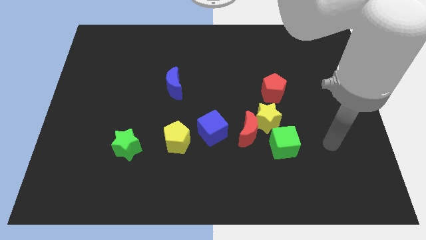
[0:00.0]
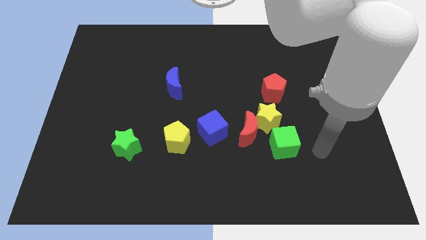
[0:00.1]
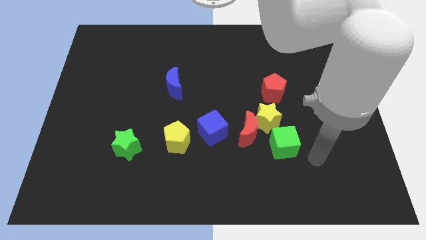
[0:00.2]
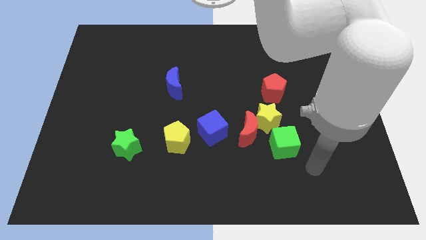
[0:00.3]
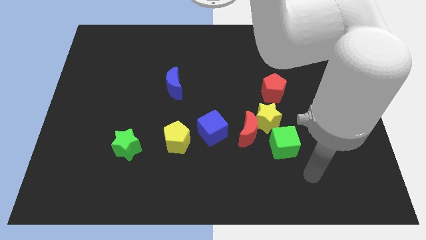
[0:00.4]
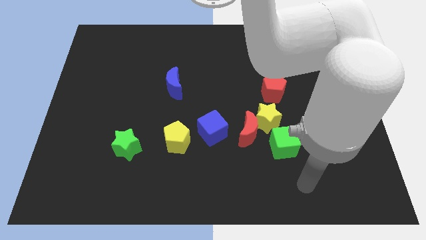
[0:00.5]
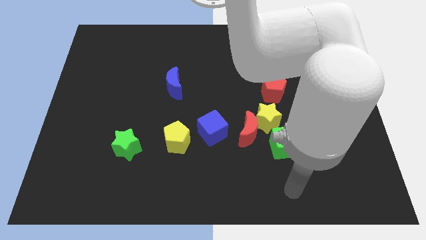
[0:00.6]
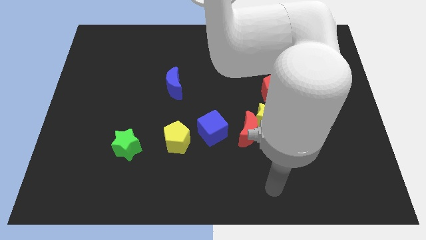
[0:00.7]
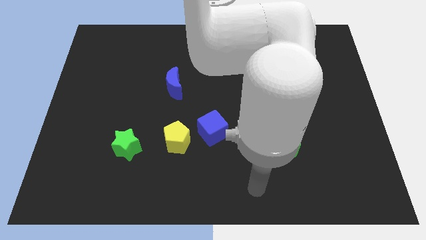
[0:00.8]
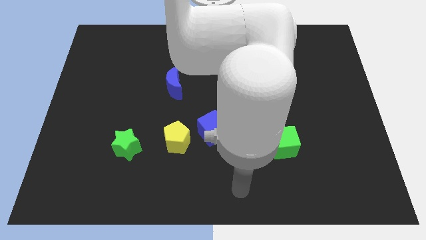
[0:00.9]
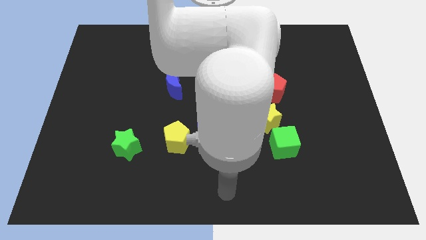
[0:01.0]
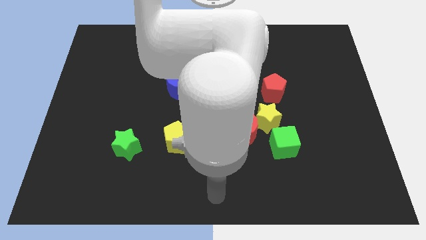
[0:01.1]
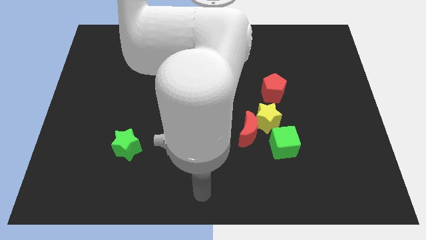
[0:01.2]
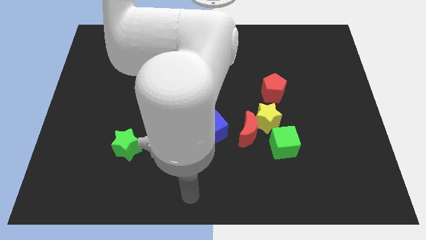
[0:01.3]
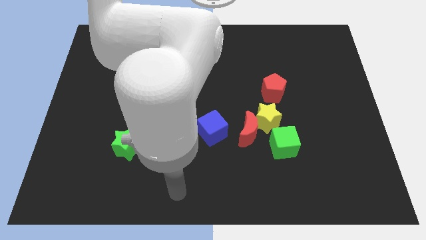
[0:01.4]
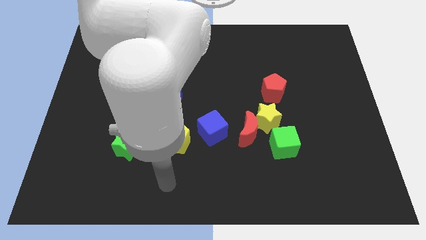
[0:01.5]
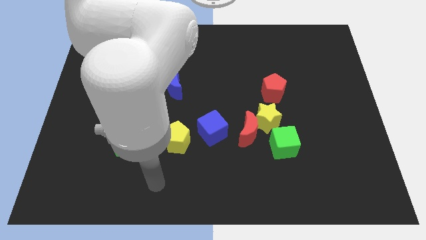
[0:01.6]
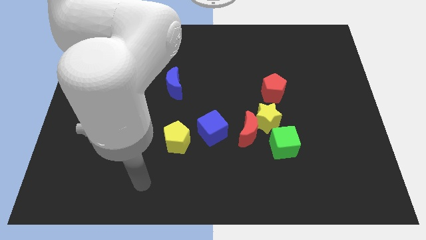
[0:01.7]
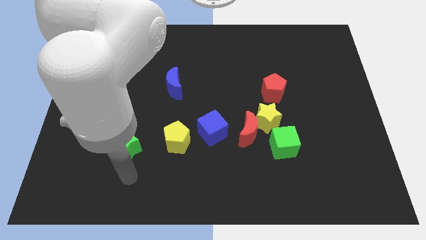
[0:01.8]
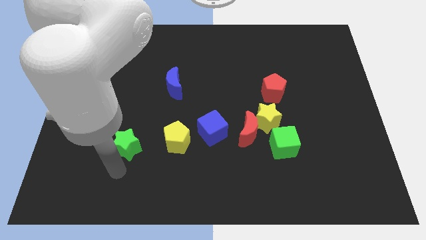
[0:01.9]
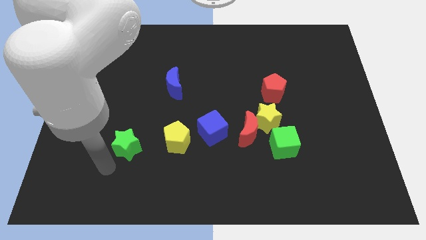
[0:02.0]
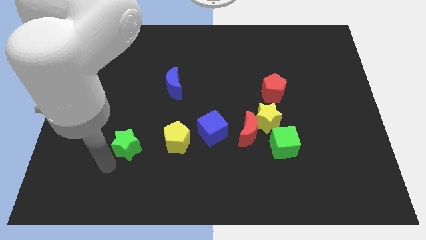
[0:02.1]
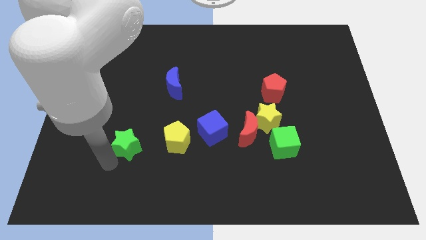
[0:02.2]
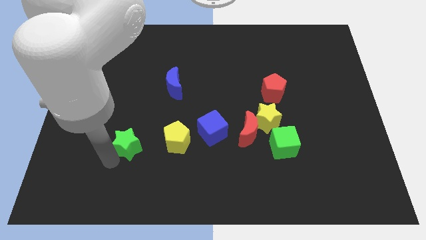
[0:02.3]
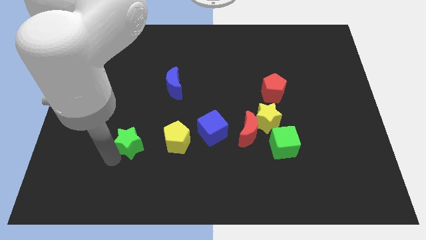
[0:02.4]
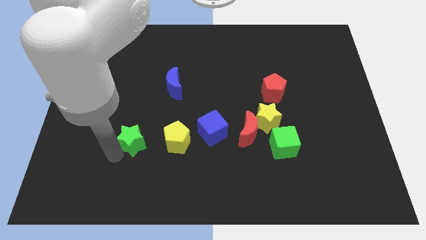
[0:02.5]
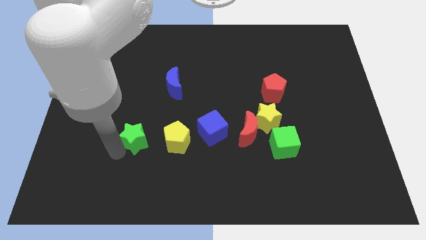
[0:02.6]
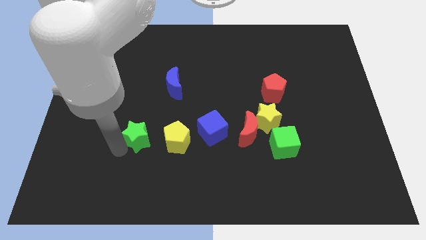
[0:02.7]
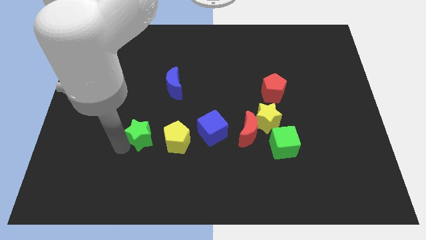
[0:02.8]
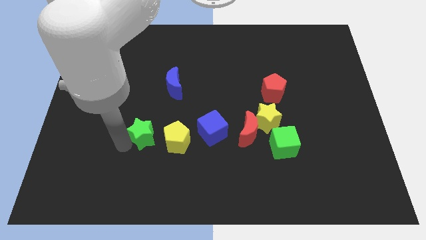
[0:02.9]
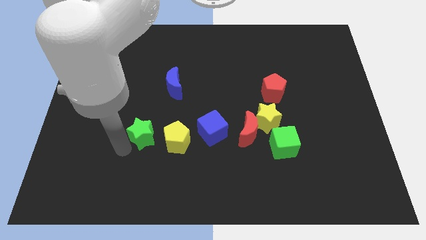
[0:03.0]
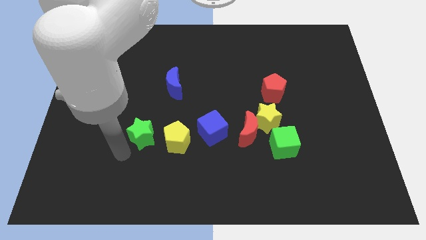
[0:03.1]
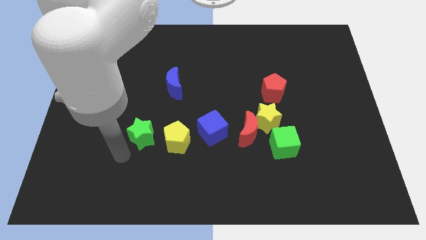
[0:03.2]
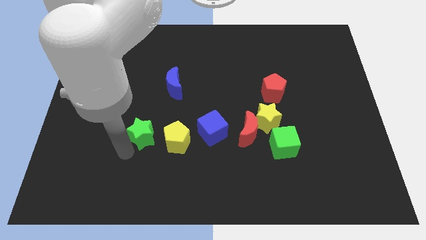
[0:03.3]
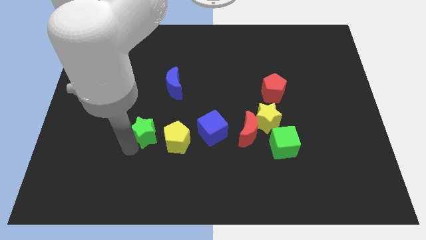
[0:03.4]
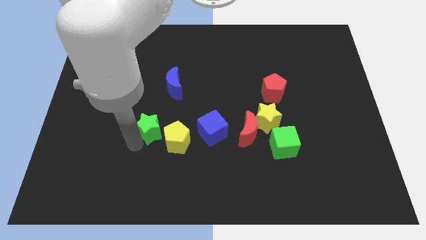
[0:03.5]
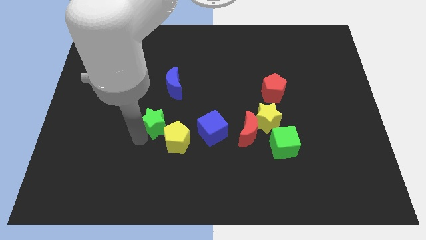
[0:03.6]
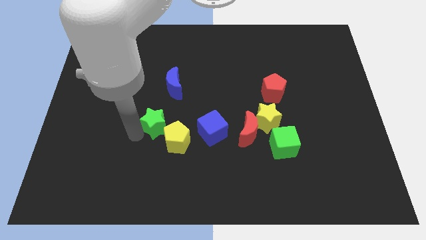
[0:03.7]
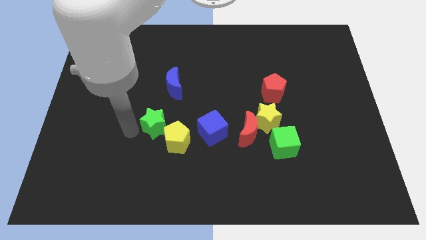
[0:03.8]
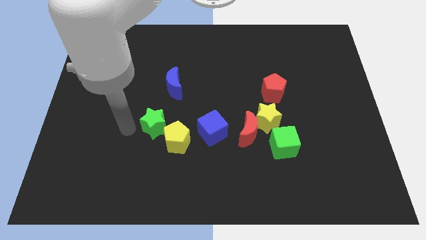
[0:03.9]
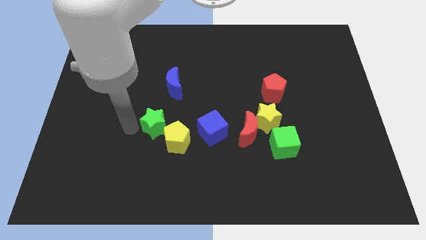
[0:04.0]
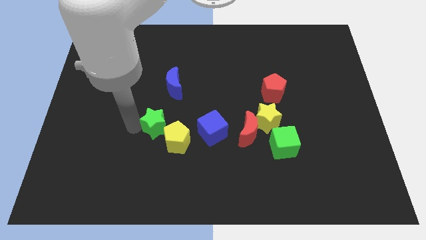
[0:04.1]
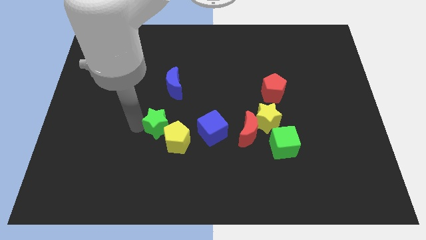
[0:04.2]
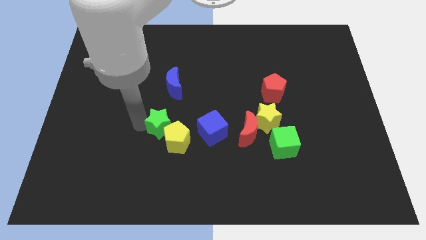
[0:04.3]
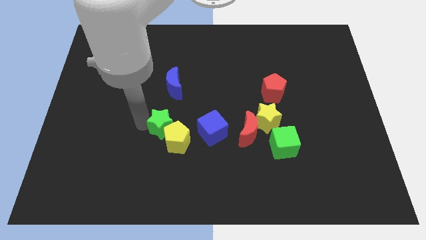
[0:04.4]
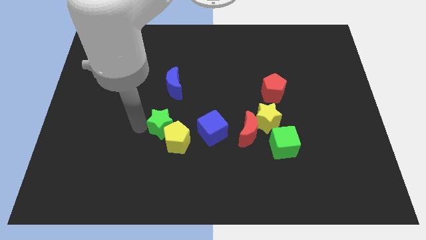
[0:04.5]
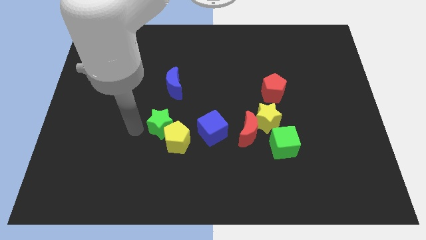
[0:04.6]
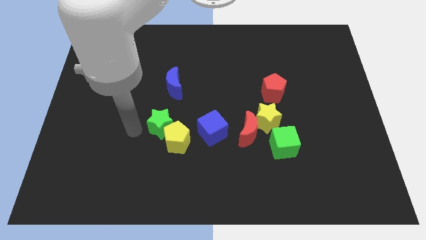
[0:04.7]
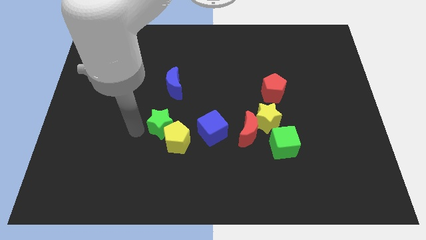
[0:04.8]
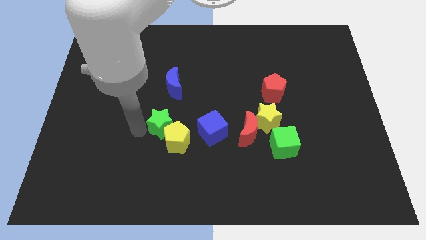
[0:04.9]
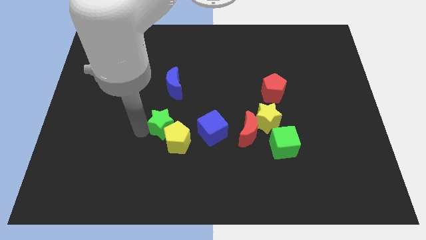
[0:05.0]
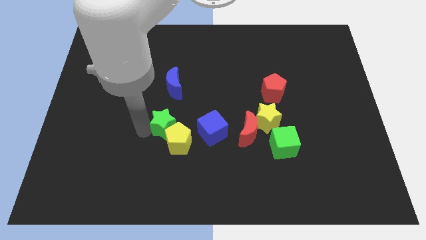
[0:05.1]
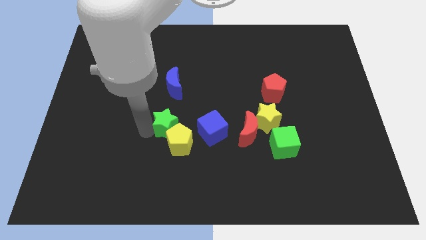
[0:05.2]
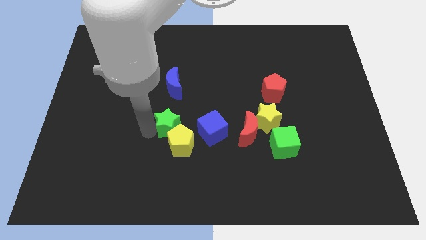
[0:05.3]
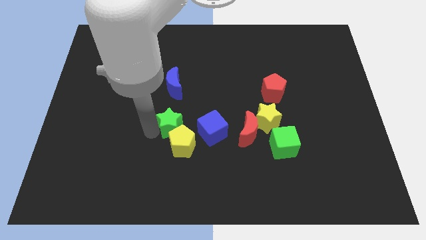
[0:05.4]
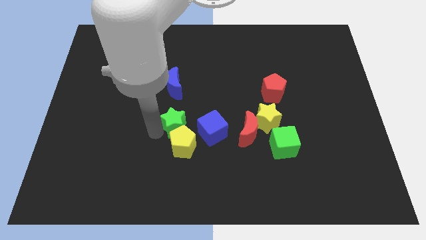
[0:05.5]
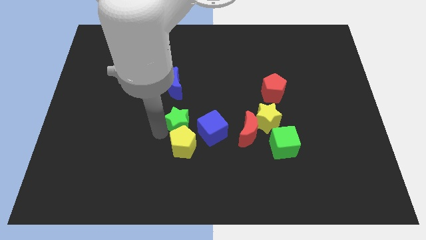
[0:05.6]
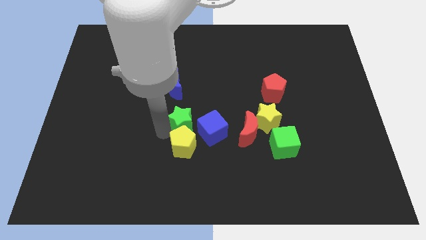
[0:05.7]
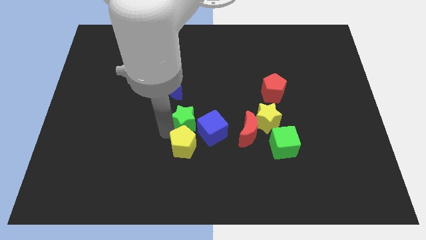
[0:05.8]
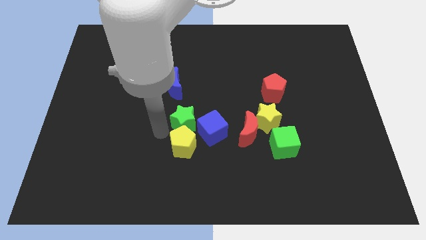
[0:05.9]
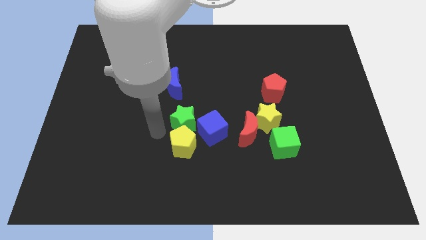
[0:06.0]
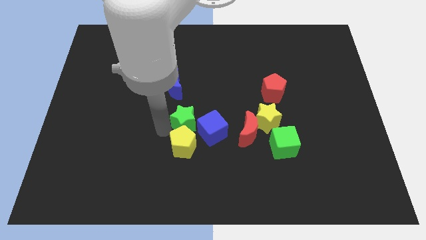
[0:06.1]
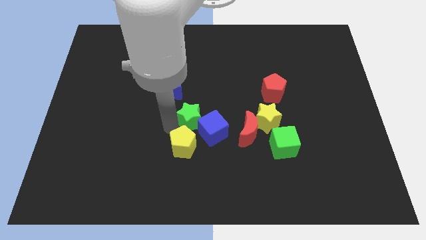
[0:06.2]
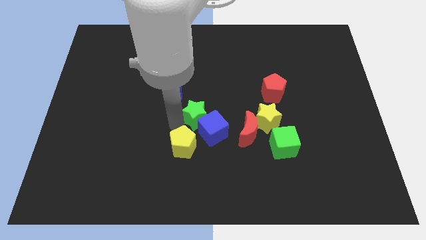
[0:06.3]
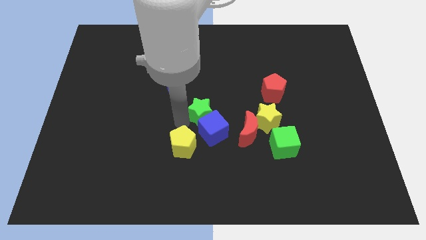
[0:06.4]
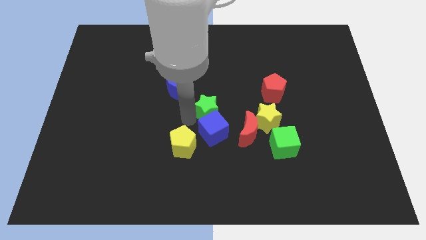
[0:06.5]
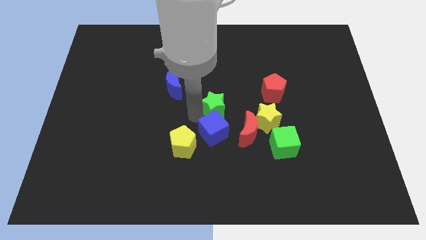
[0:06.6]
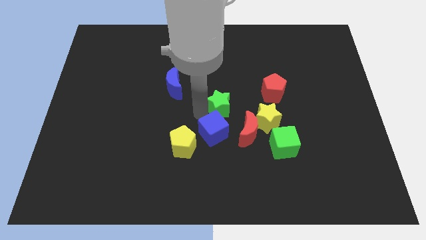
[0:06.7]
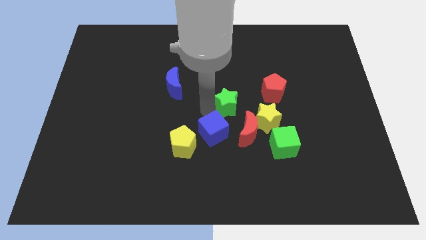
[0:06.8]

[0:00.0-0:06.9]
slide the green star to the top left side of the yellow star
